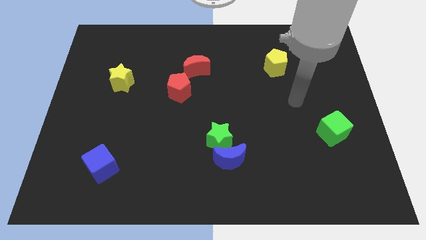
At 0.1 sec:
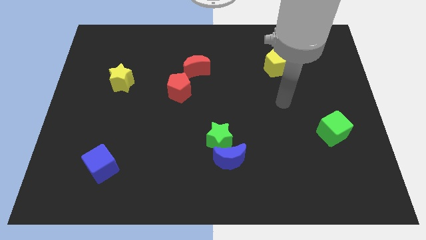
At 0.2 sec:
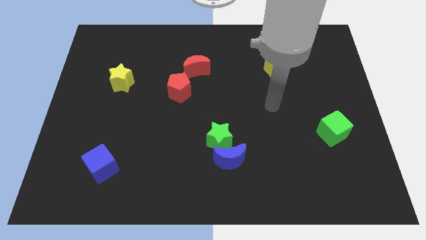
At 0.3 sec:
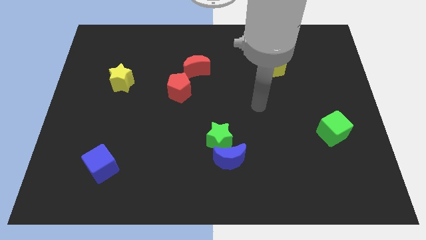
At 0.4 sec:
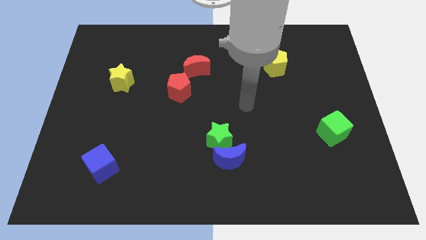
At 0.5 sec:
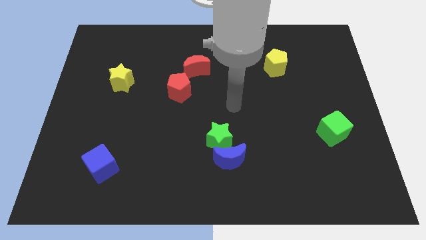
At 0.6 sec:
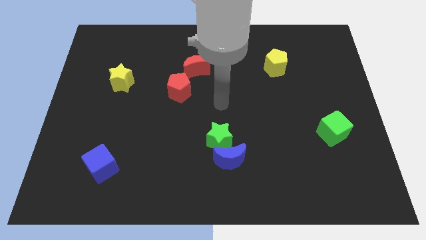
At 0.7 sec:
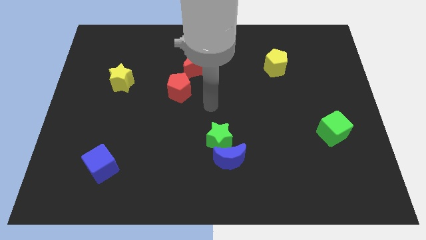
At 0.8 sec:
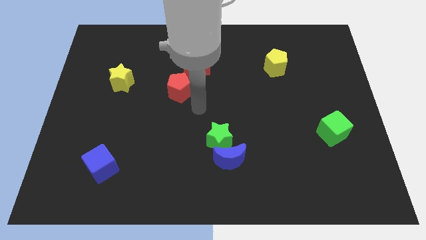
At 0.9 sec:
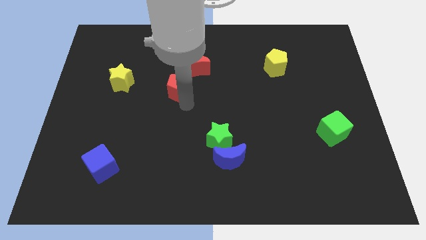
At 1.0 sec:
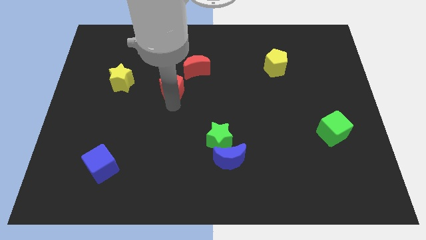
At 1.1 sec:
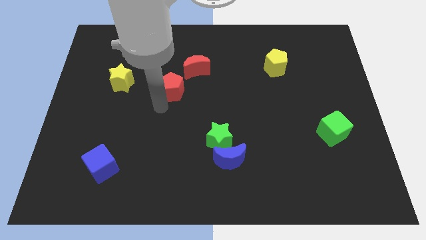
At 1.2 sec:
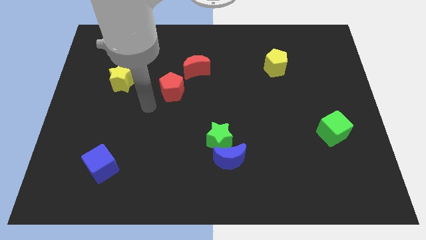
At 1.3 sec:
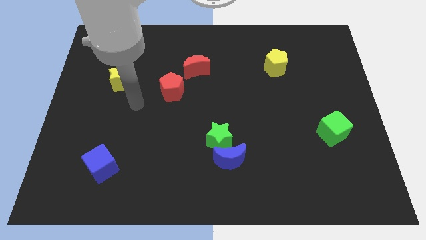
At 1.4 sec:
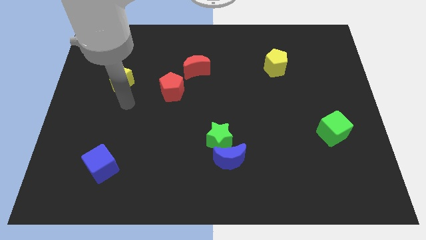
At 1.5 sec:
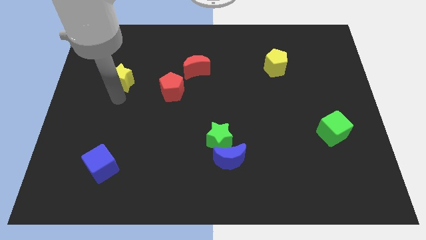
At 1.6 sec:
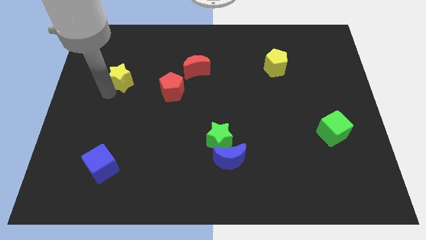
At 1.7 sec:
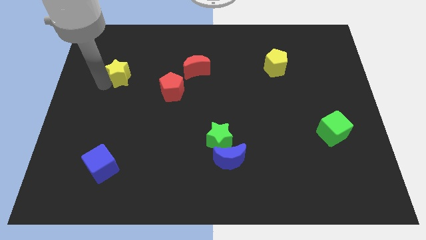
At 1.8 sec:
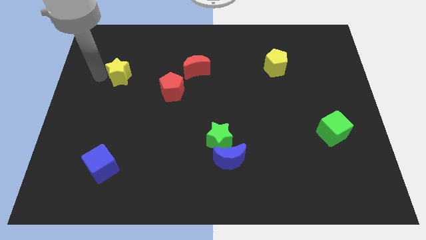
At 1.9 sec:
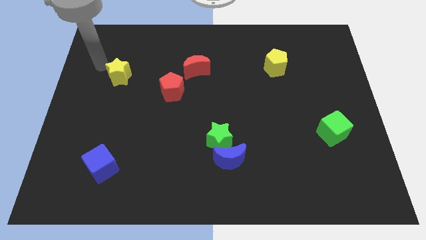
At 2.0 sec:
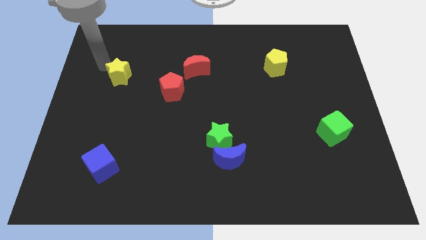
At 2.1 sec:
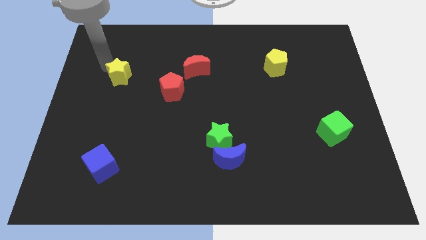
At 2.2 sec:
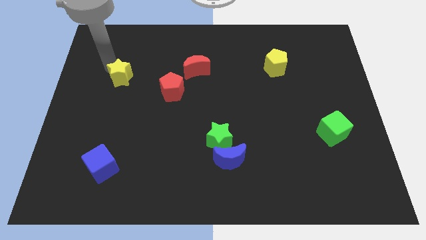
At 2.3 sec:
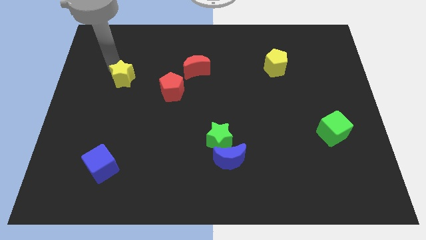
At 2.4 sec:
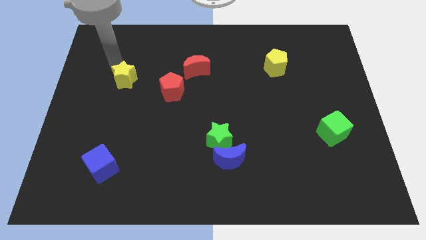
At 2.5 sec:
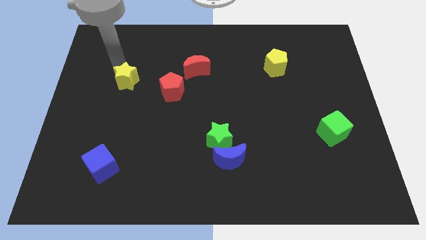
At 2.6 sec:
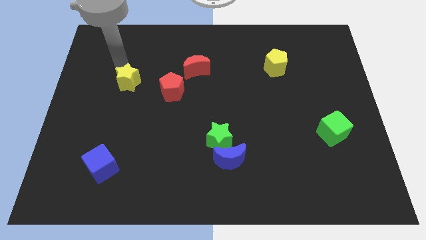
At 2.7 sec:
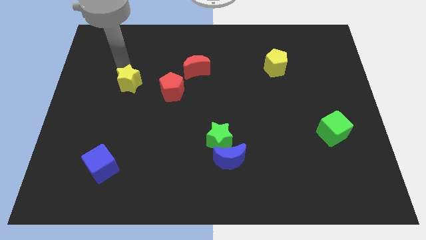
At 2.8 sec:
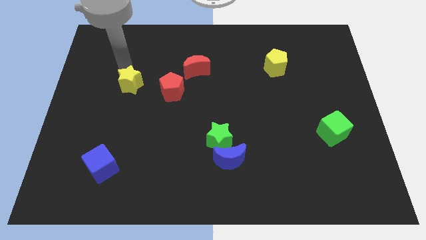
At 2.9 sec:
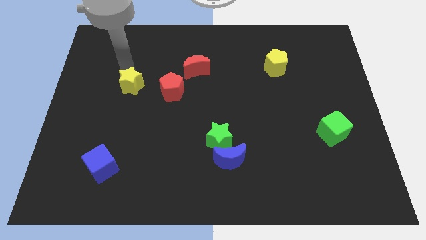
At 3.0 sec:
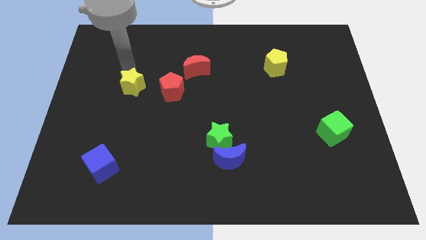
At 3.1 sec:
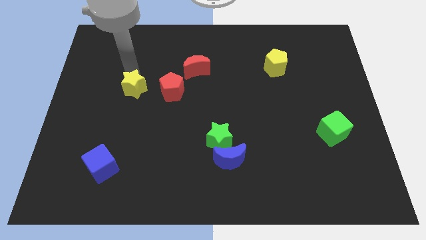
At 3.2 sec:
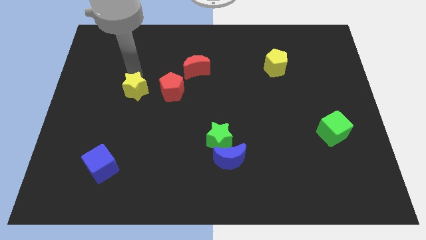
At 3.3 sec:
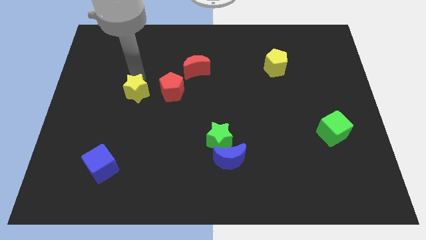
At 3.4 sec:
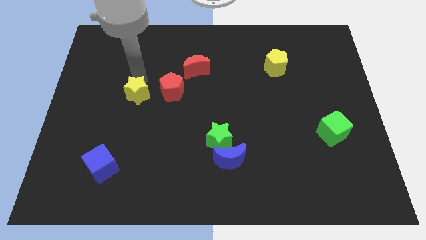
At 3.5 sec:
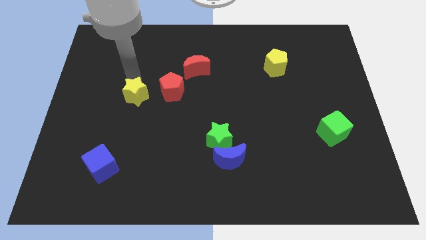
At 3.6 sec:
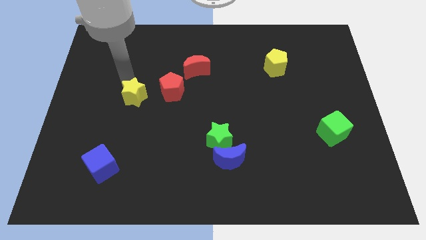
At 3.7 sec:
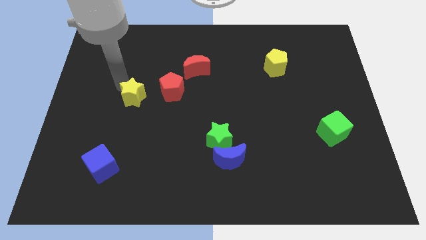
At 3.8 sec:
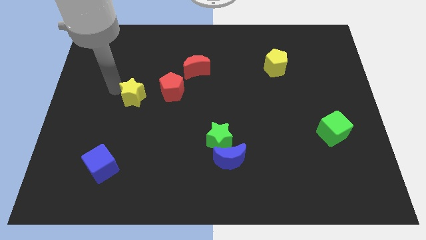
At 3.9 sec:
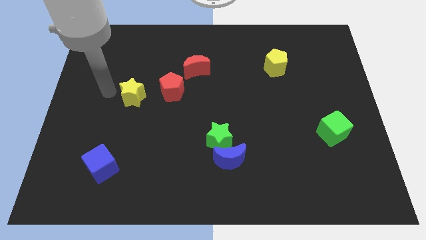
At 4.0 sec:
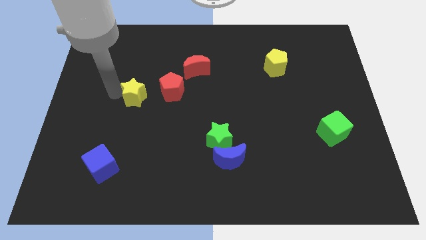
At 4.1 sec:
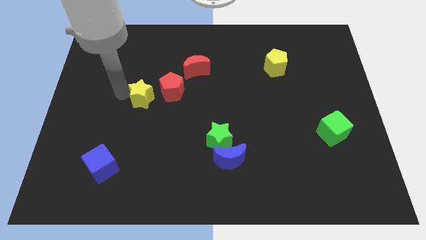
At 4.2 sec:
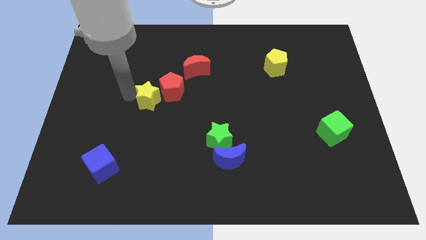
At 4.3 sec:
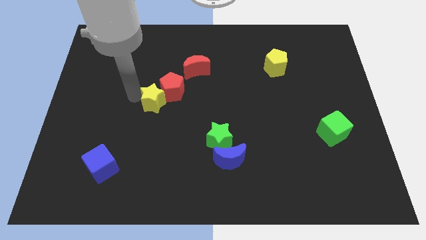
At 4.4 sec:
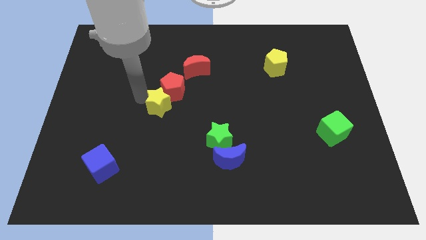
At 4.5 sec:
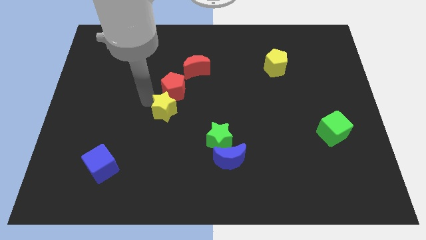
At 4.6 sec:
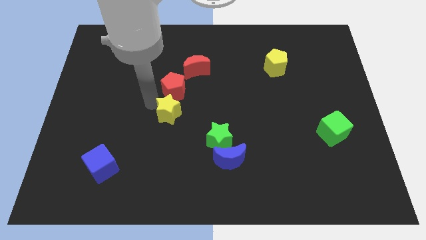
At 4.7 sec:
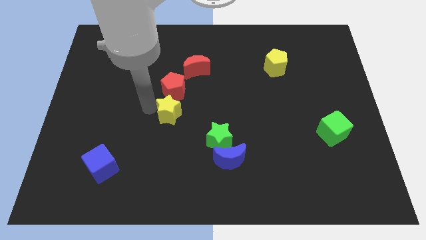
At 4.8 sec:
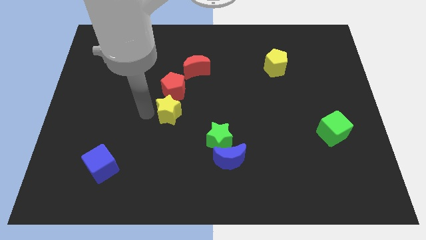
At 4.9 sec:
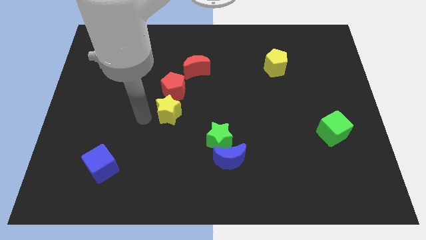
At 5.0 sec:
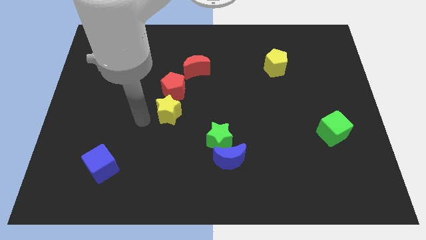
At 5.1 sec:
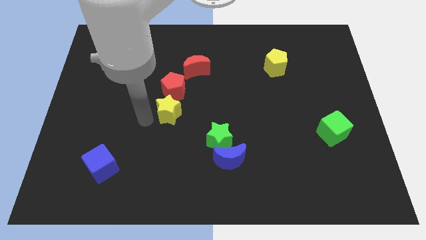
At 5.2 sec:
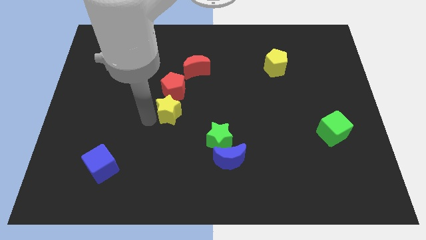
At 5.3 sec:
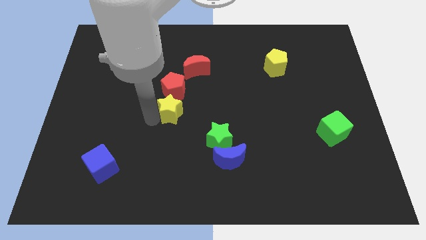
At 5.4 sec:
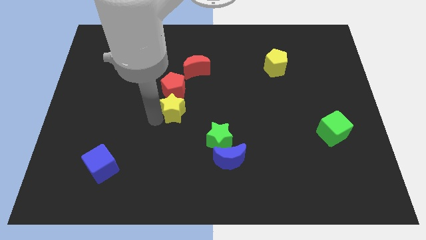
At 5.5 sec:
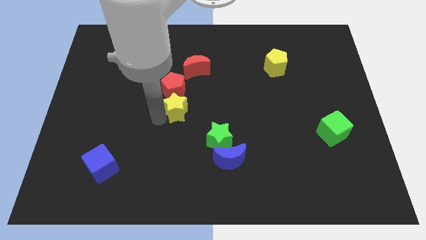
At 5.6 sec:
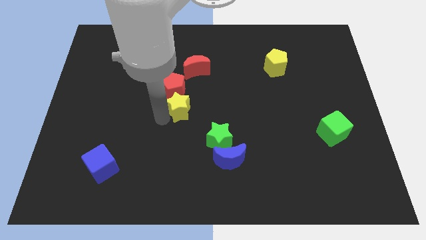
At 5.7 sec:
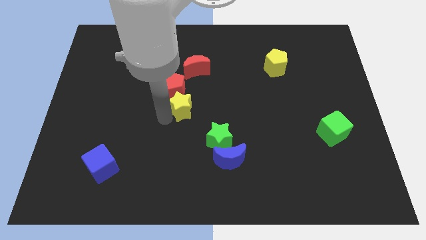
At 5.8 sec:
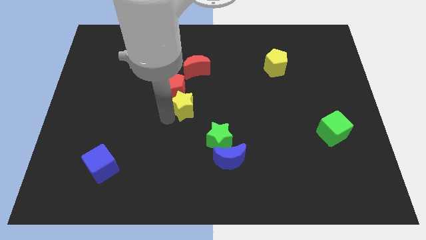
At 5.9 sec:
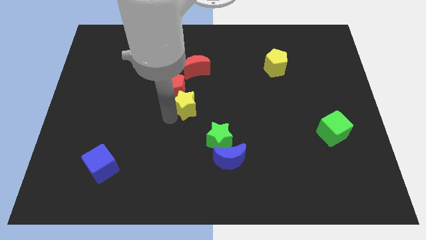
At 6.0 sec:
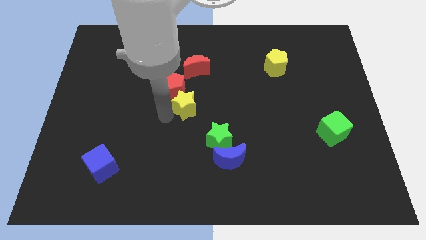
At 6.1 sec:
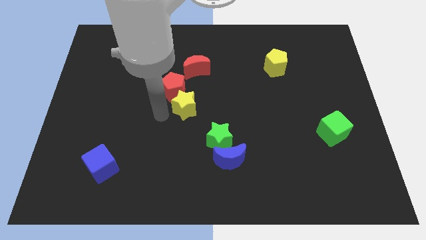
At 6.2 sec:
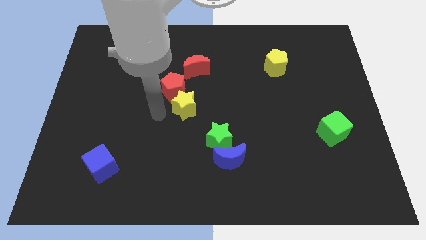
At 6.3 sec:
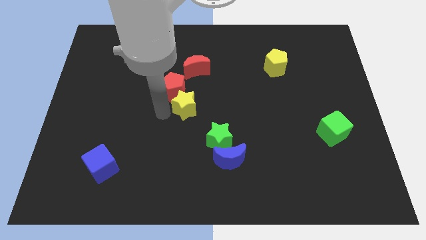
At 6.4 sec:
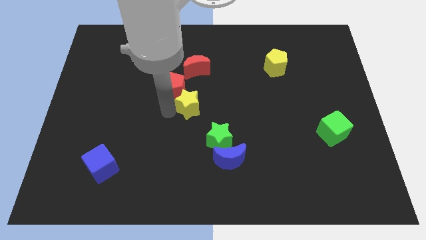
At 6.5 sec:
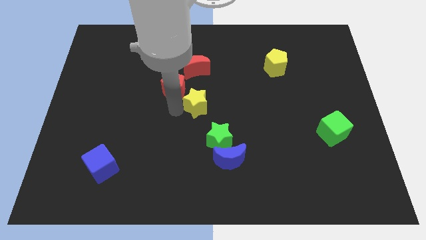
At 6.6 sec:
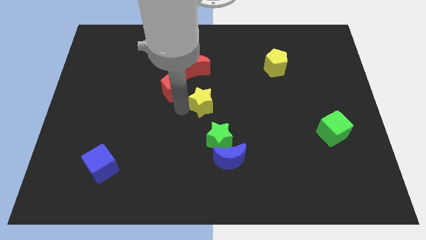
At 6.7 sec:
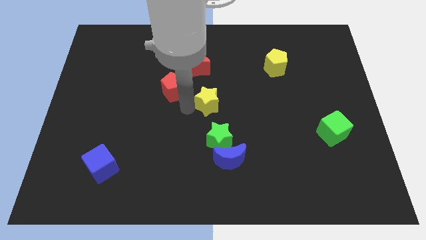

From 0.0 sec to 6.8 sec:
move the yellow star right

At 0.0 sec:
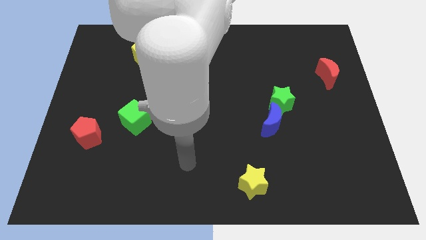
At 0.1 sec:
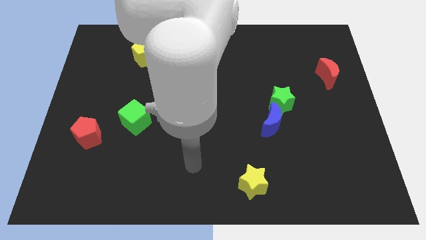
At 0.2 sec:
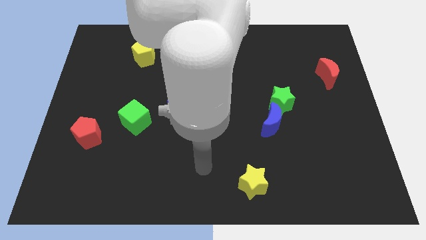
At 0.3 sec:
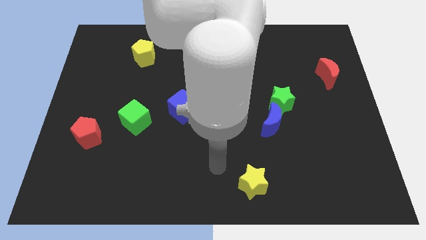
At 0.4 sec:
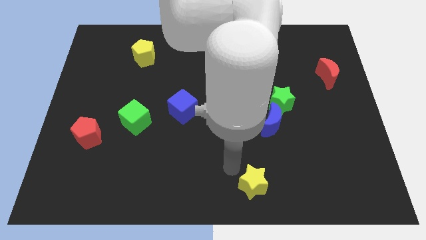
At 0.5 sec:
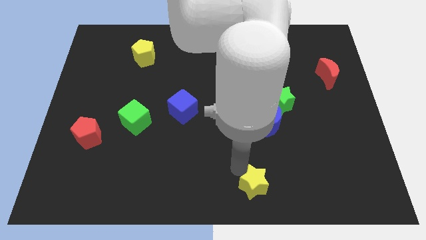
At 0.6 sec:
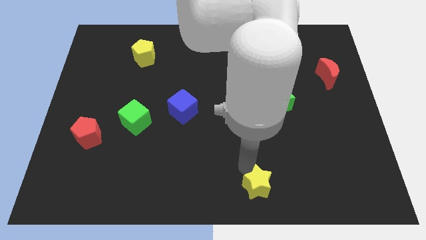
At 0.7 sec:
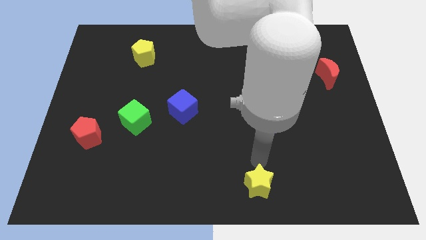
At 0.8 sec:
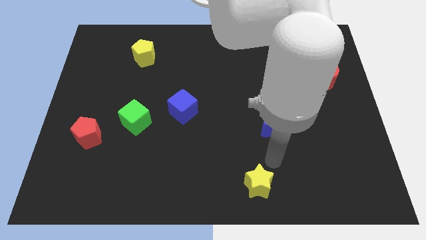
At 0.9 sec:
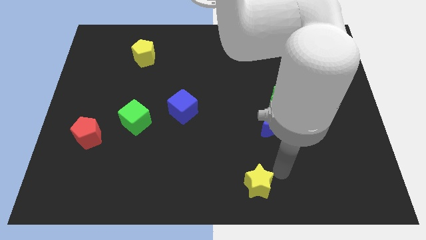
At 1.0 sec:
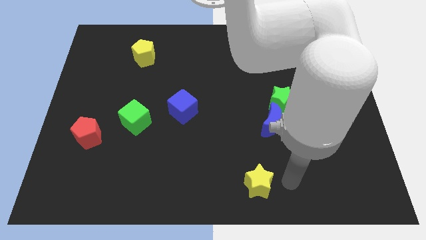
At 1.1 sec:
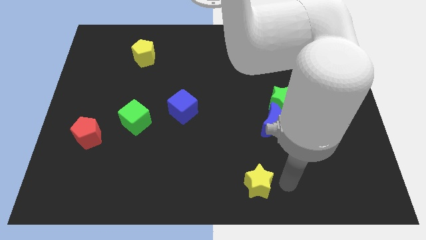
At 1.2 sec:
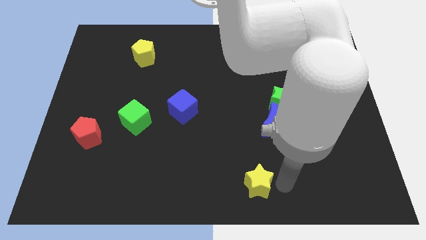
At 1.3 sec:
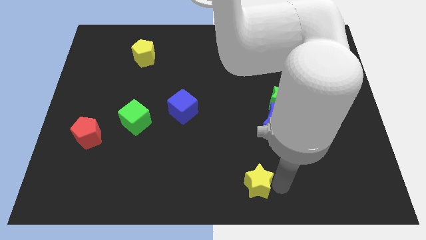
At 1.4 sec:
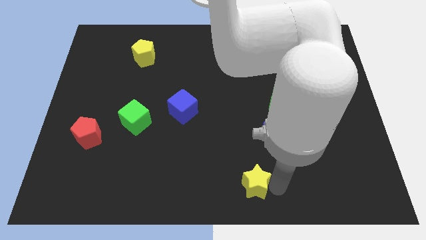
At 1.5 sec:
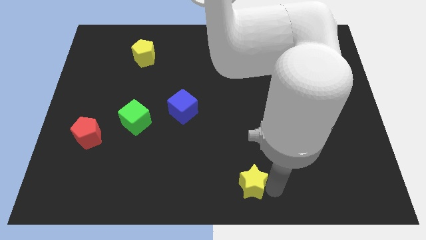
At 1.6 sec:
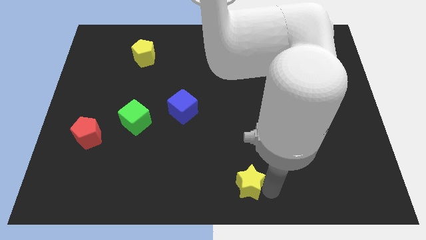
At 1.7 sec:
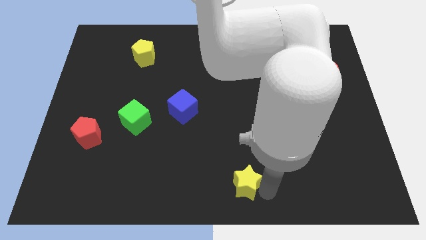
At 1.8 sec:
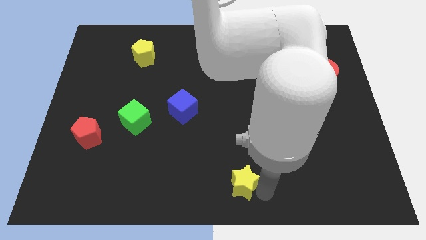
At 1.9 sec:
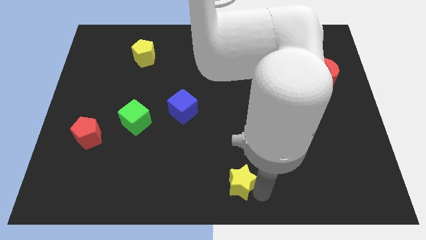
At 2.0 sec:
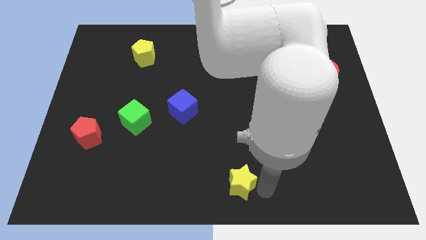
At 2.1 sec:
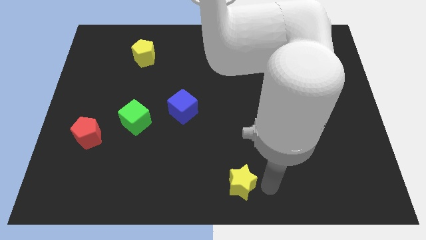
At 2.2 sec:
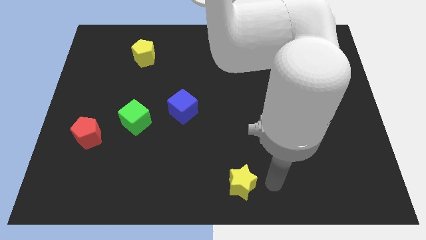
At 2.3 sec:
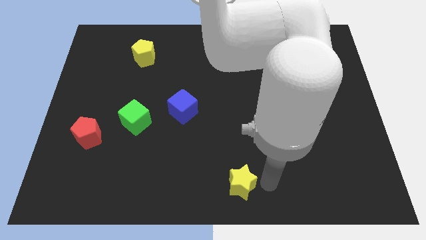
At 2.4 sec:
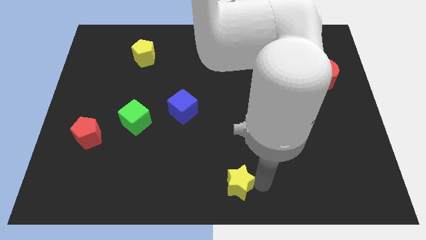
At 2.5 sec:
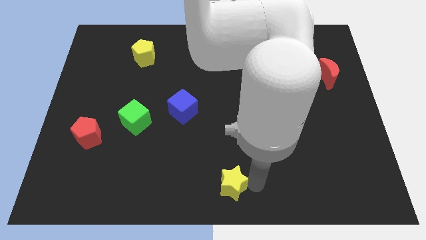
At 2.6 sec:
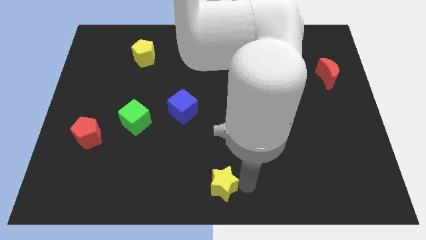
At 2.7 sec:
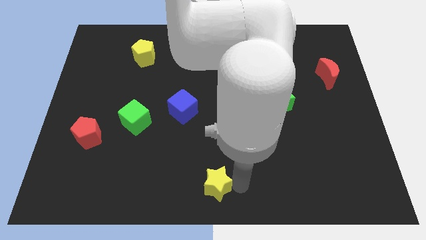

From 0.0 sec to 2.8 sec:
move the yellow star a little bit left
